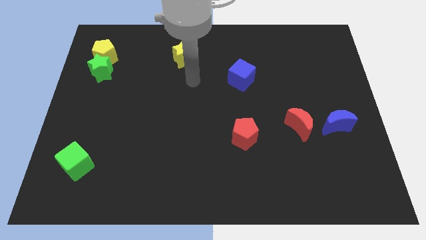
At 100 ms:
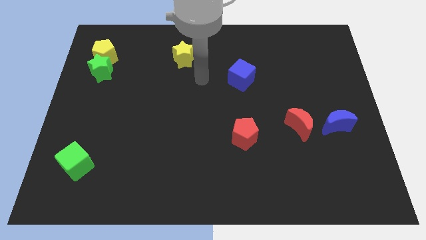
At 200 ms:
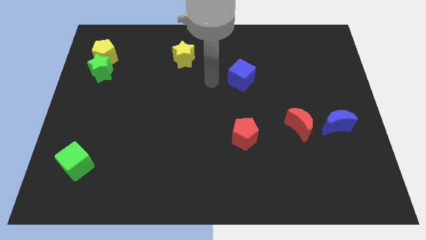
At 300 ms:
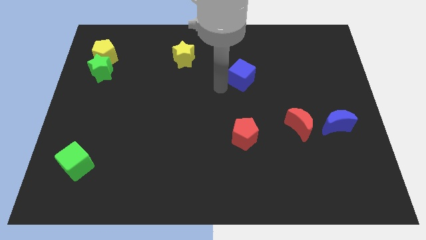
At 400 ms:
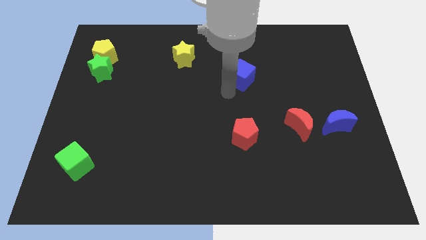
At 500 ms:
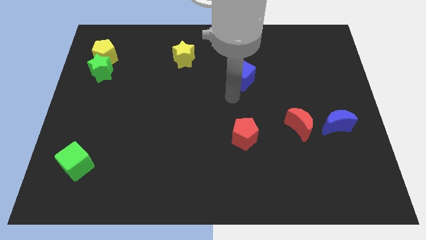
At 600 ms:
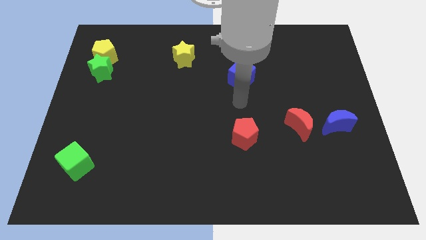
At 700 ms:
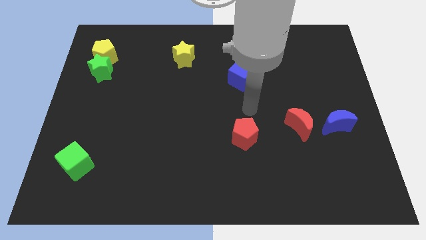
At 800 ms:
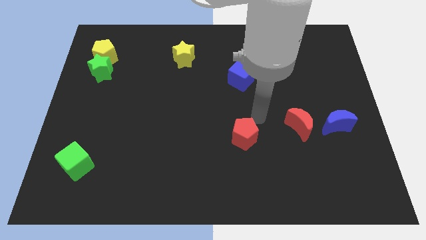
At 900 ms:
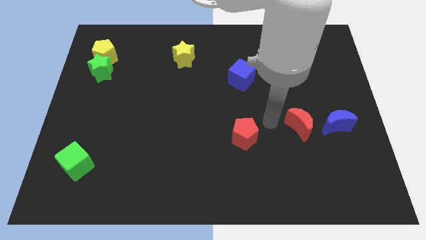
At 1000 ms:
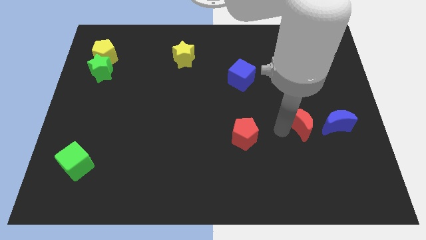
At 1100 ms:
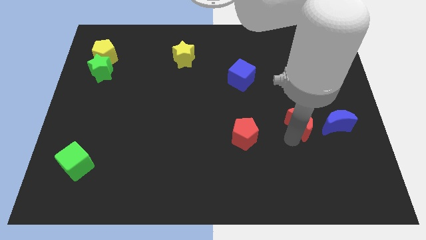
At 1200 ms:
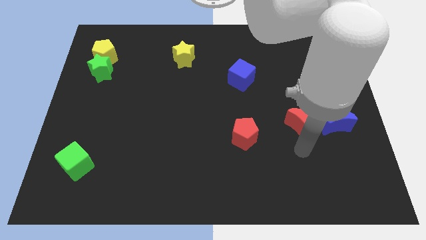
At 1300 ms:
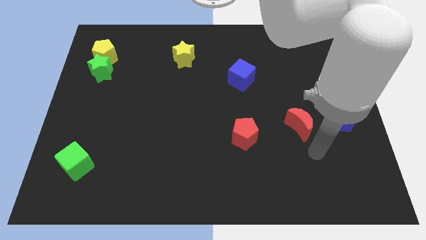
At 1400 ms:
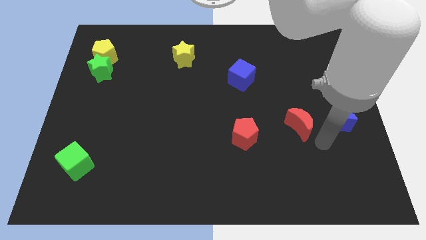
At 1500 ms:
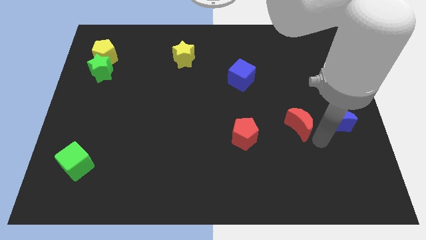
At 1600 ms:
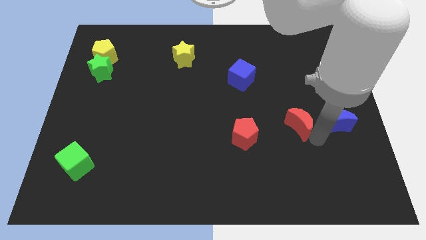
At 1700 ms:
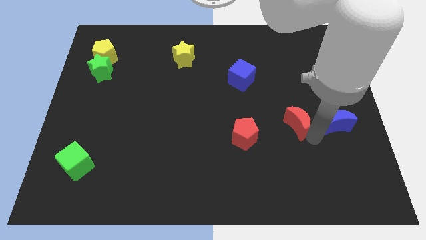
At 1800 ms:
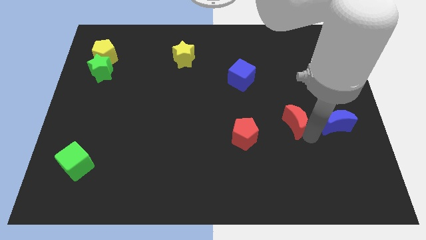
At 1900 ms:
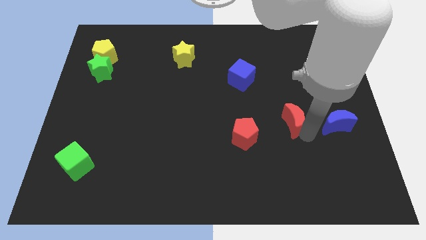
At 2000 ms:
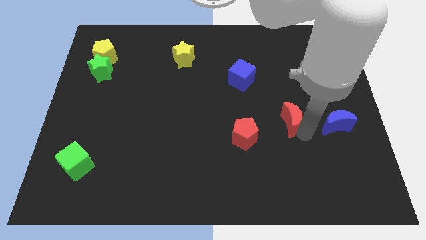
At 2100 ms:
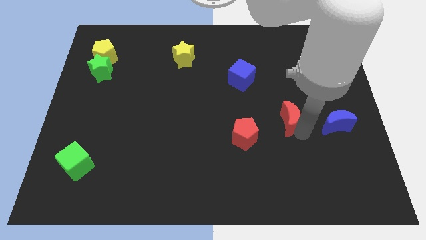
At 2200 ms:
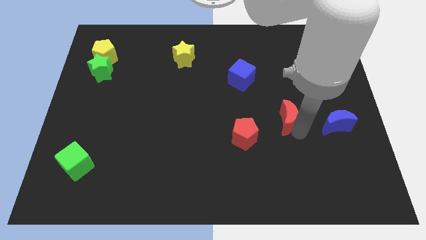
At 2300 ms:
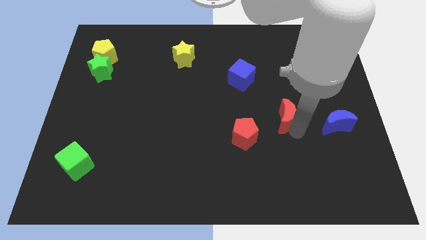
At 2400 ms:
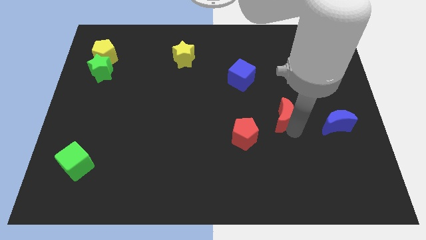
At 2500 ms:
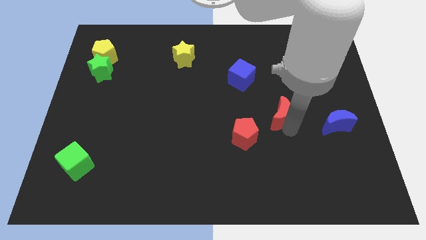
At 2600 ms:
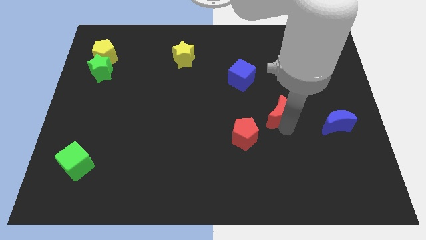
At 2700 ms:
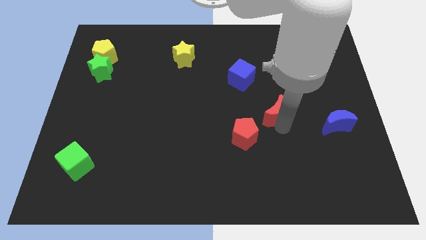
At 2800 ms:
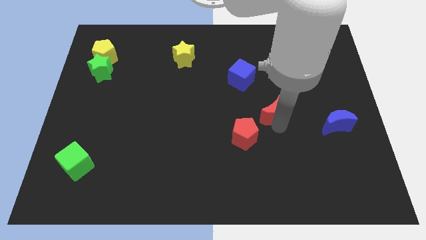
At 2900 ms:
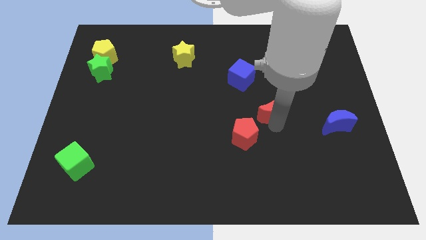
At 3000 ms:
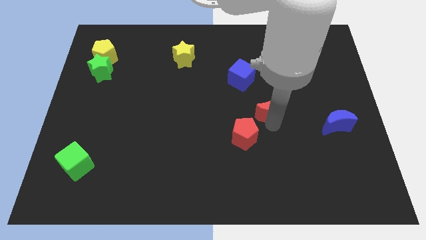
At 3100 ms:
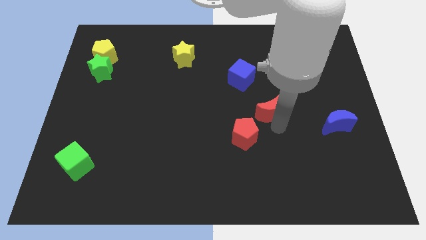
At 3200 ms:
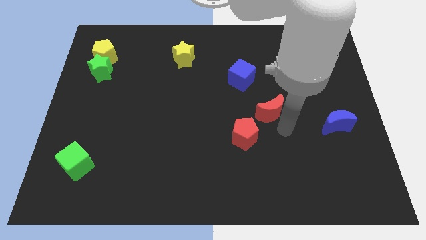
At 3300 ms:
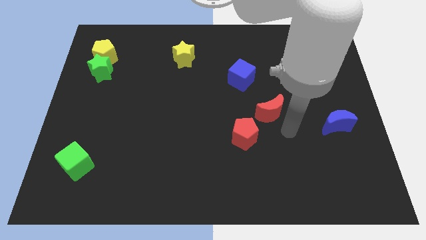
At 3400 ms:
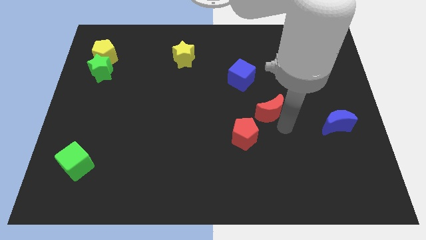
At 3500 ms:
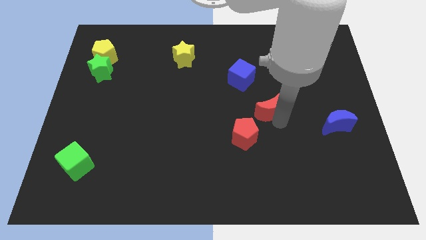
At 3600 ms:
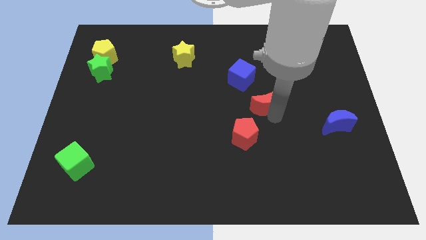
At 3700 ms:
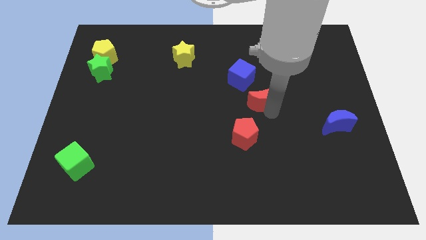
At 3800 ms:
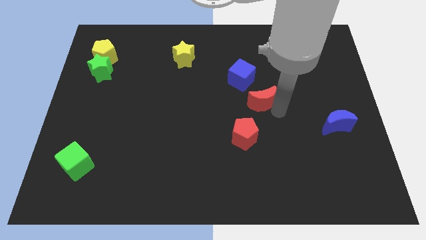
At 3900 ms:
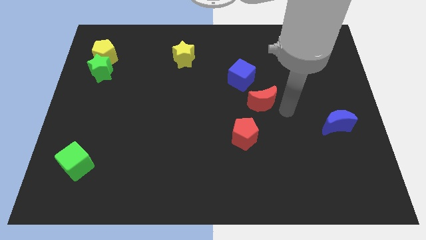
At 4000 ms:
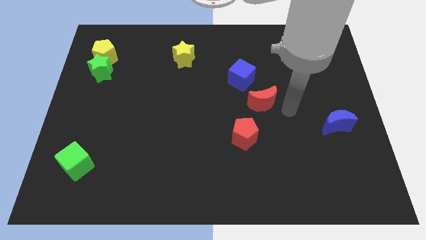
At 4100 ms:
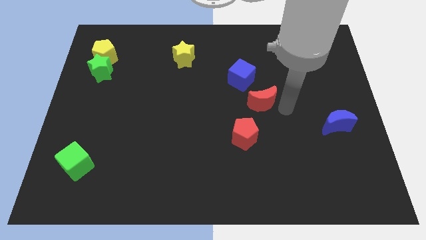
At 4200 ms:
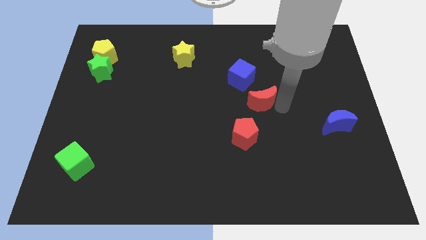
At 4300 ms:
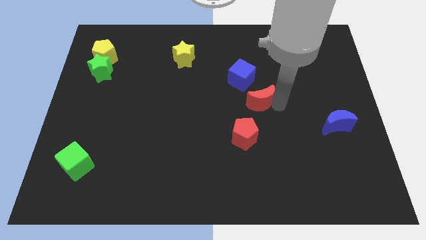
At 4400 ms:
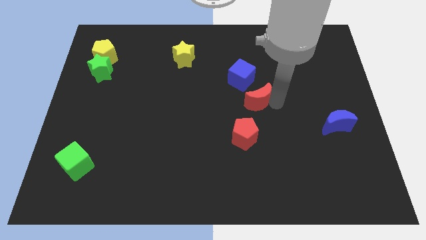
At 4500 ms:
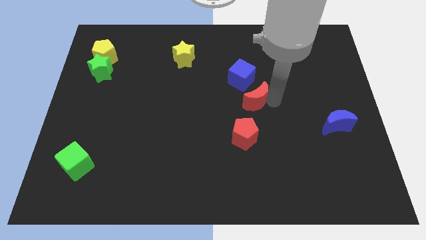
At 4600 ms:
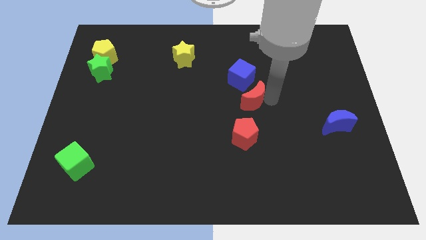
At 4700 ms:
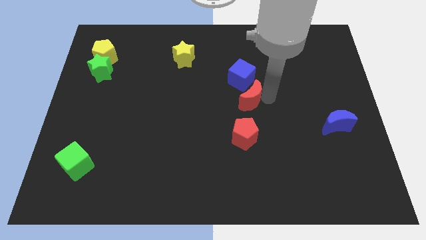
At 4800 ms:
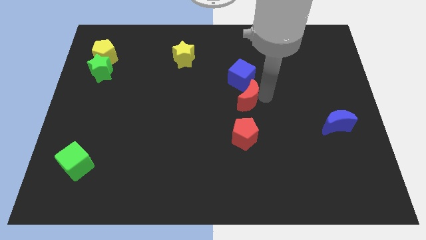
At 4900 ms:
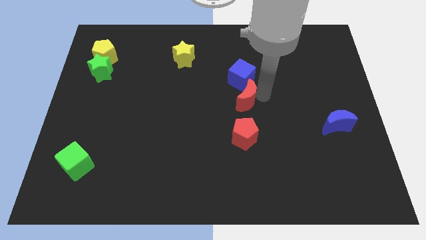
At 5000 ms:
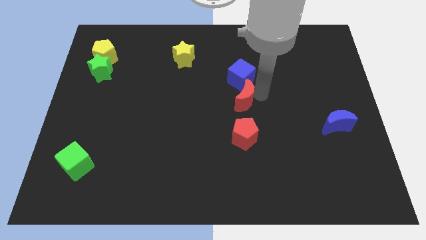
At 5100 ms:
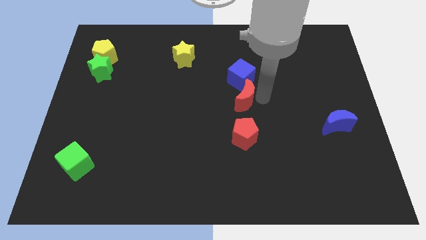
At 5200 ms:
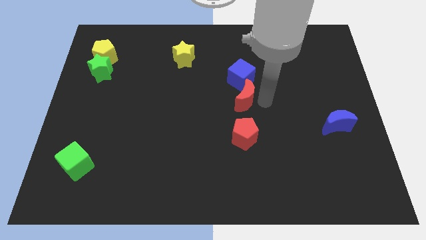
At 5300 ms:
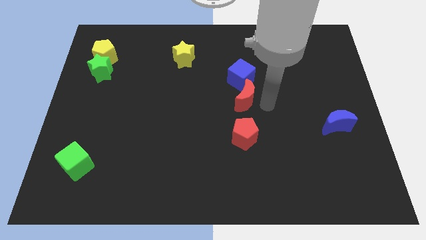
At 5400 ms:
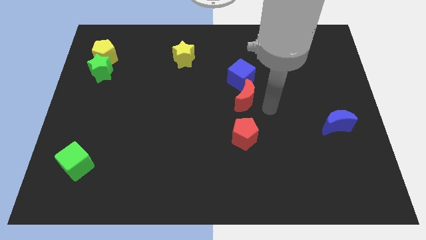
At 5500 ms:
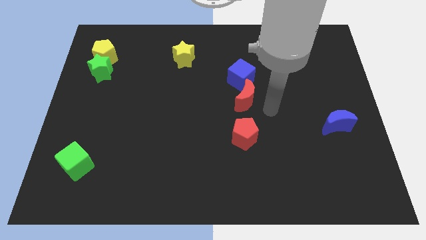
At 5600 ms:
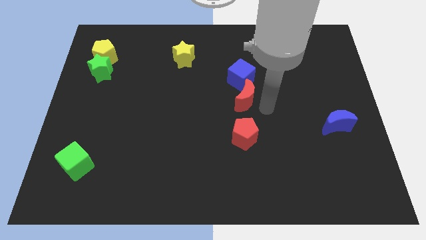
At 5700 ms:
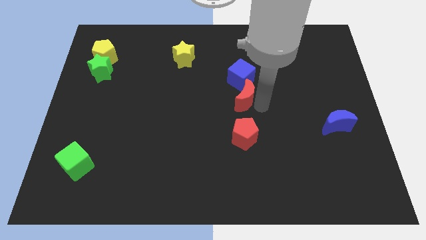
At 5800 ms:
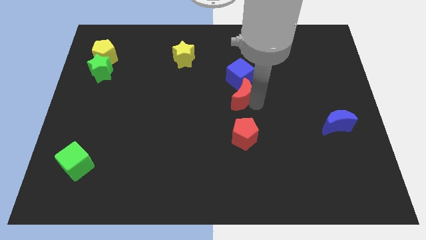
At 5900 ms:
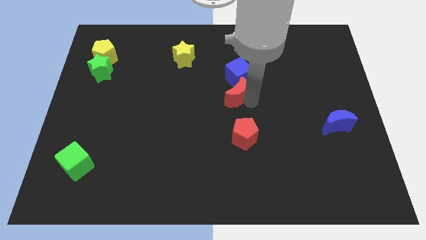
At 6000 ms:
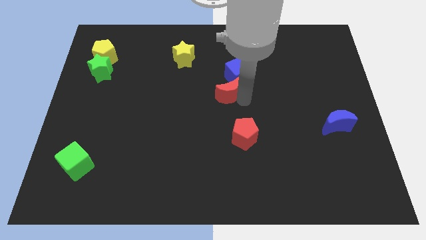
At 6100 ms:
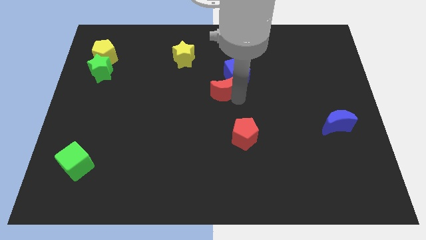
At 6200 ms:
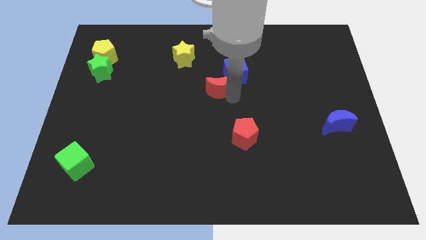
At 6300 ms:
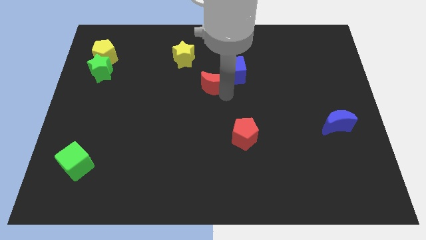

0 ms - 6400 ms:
push the red moon upwards and to the left

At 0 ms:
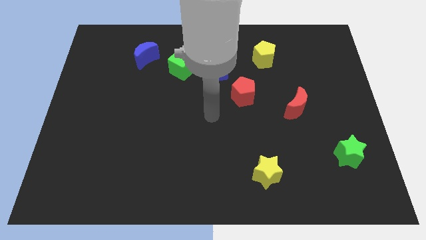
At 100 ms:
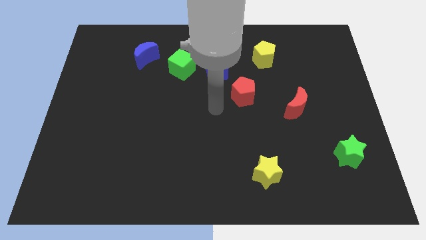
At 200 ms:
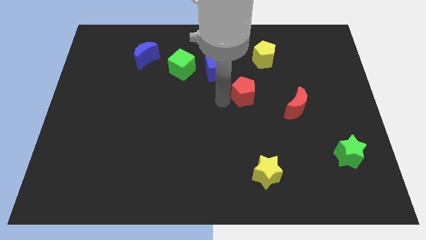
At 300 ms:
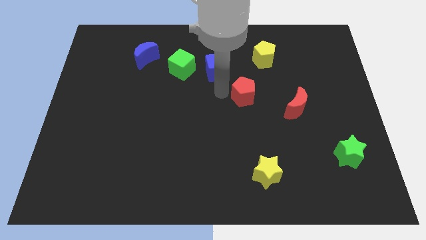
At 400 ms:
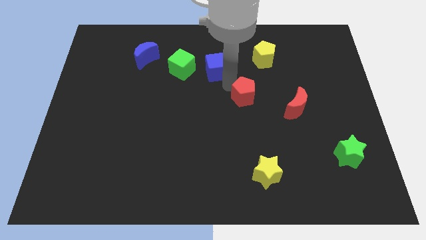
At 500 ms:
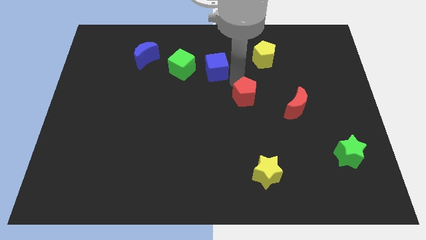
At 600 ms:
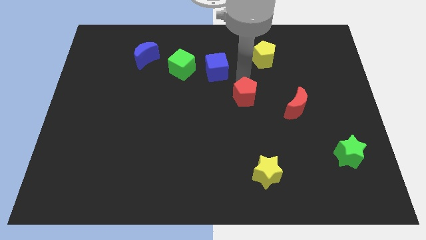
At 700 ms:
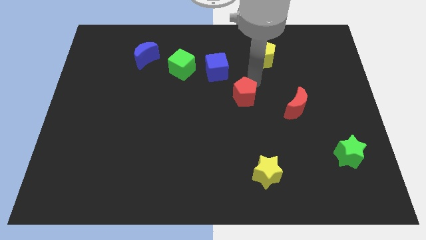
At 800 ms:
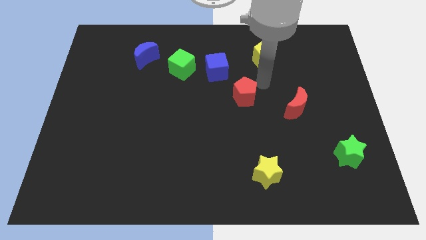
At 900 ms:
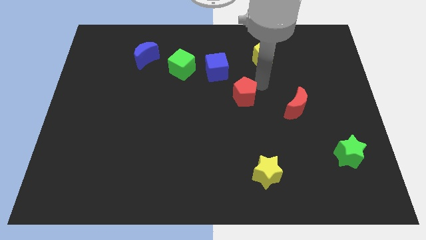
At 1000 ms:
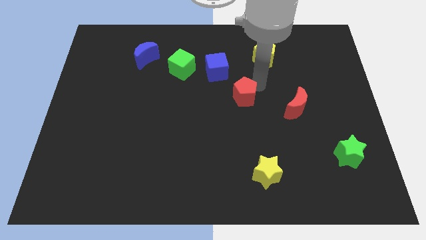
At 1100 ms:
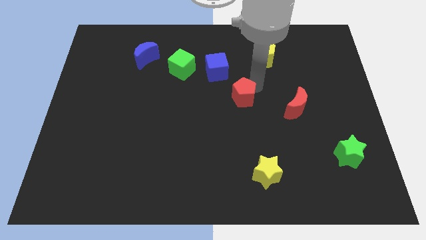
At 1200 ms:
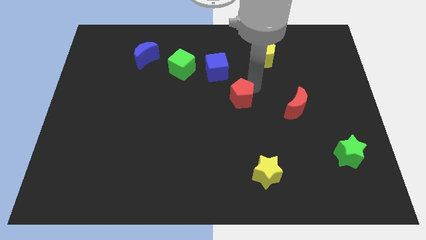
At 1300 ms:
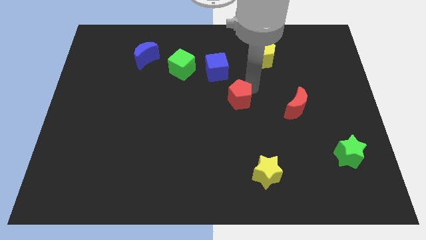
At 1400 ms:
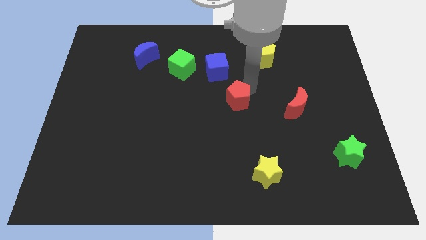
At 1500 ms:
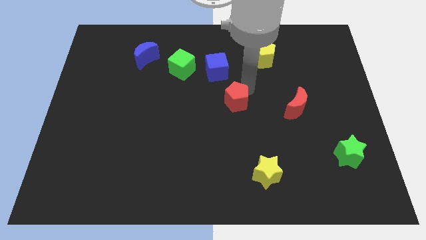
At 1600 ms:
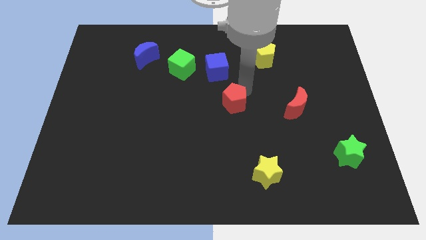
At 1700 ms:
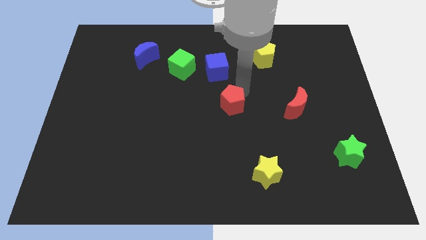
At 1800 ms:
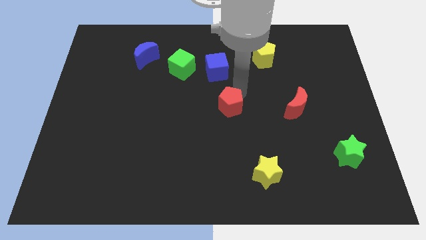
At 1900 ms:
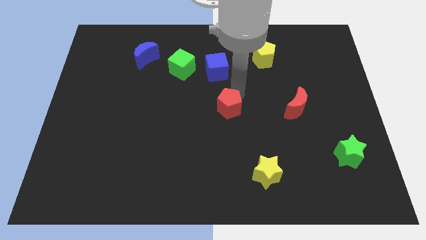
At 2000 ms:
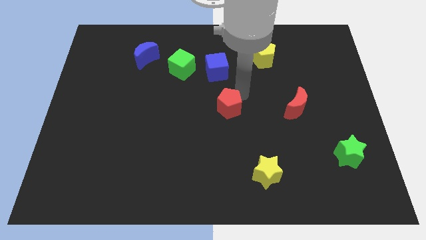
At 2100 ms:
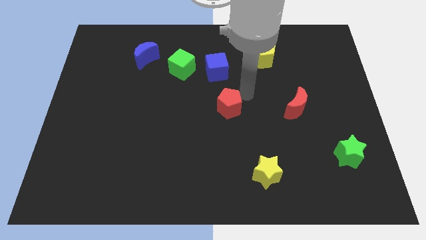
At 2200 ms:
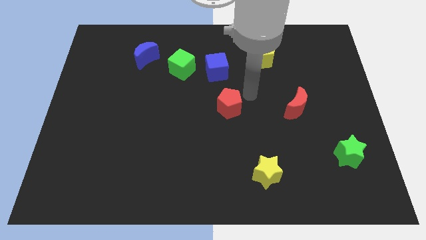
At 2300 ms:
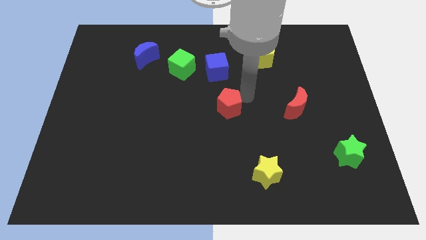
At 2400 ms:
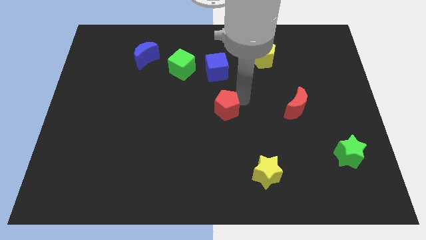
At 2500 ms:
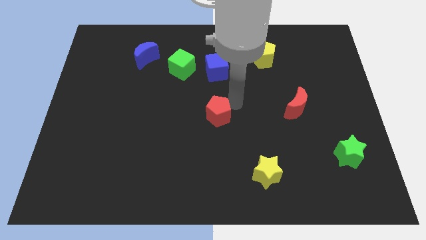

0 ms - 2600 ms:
slightly push the red pentagon down and then left
